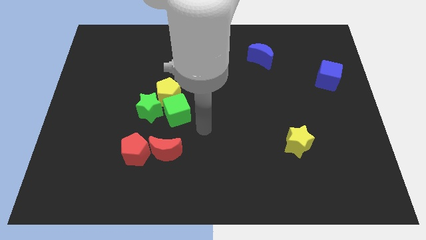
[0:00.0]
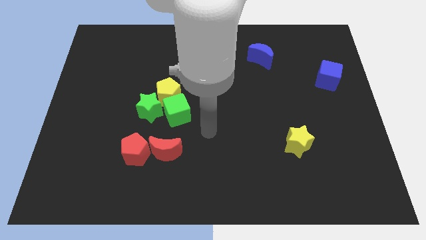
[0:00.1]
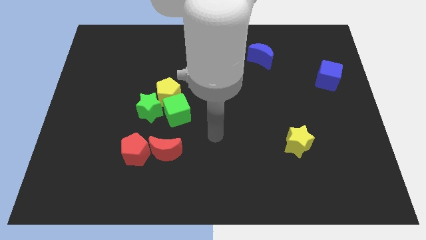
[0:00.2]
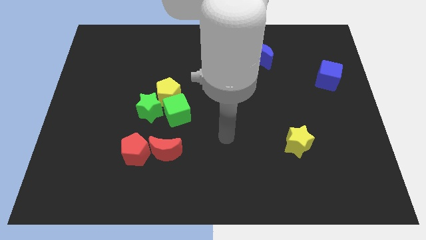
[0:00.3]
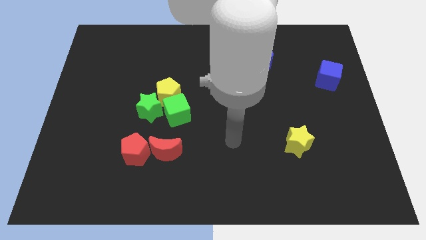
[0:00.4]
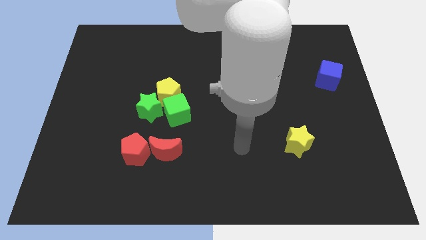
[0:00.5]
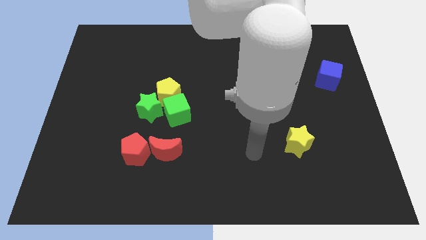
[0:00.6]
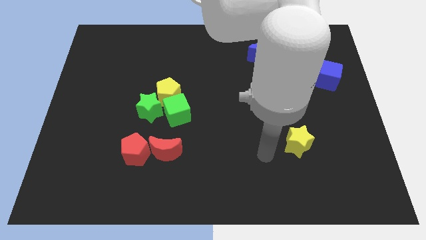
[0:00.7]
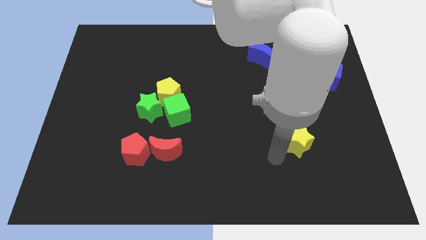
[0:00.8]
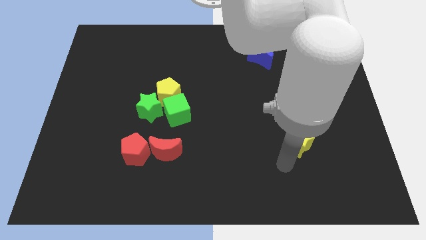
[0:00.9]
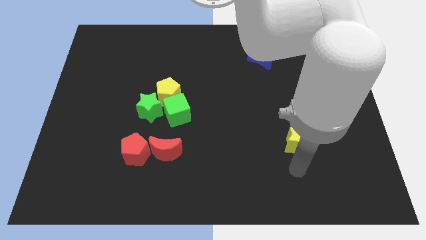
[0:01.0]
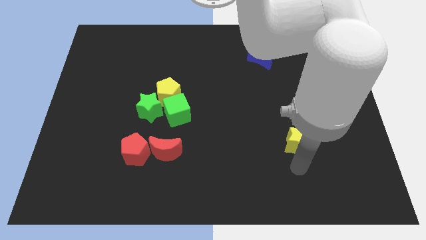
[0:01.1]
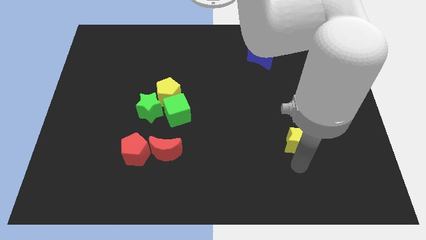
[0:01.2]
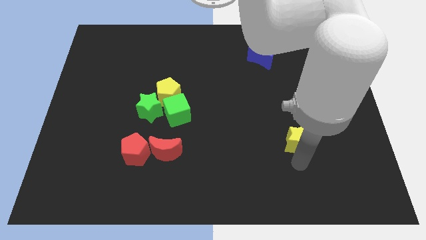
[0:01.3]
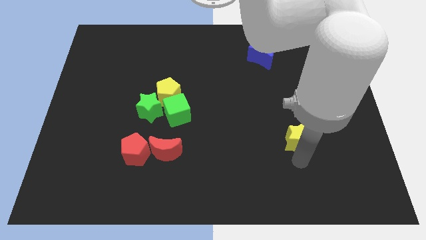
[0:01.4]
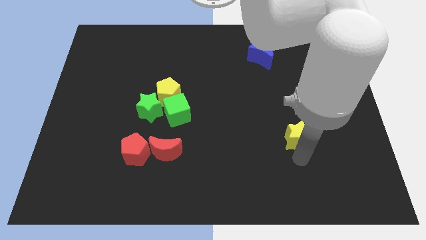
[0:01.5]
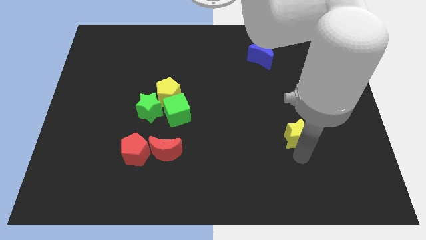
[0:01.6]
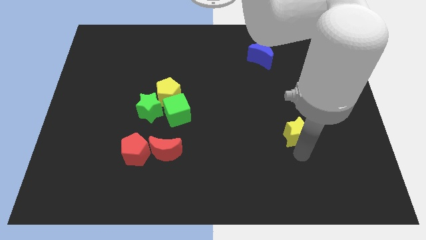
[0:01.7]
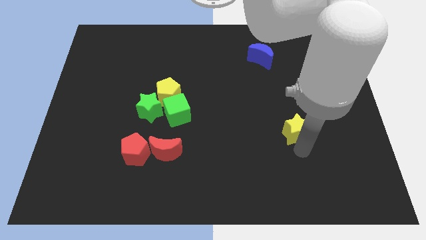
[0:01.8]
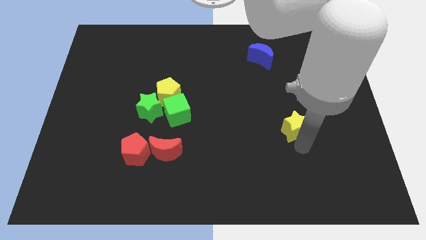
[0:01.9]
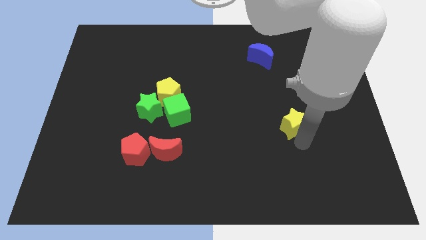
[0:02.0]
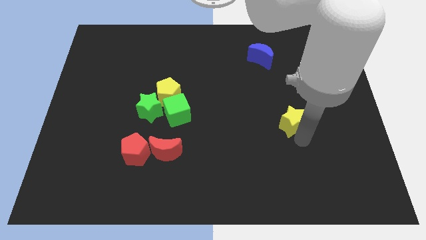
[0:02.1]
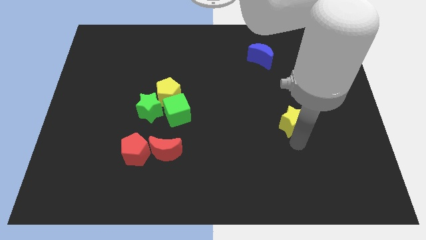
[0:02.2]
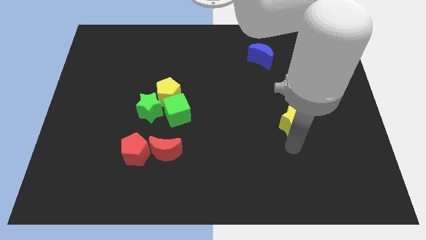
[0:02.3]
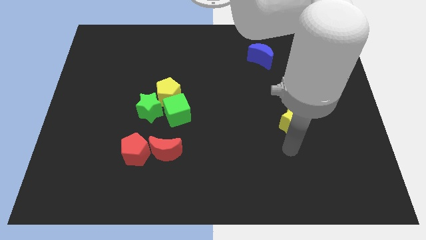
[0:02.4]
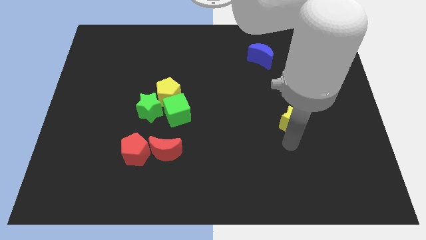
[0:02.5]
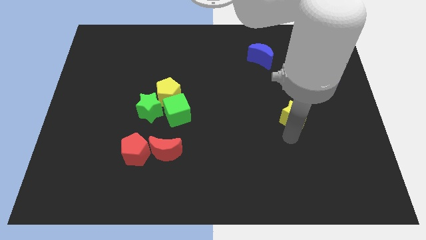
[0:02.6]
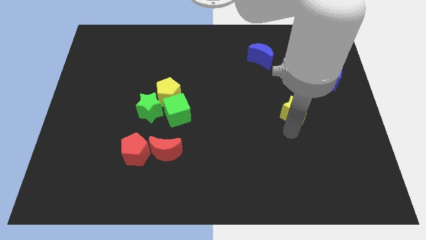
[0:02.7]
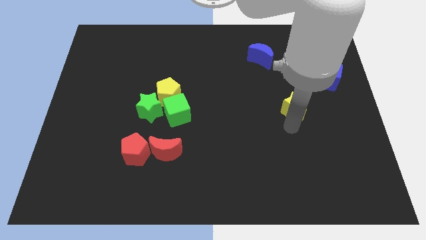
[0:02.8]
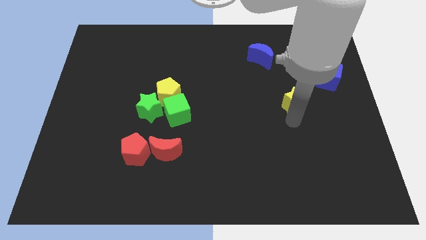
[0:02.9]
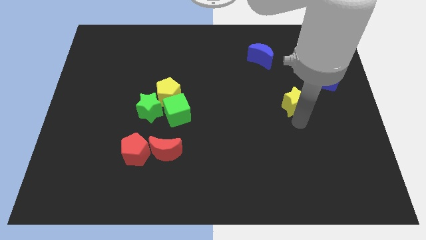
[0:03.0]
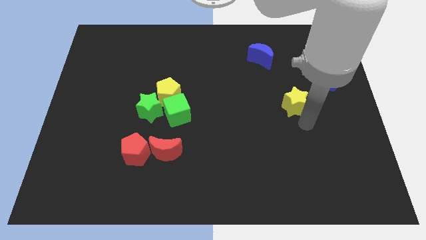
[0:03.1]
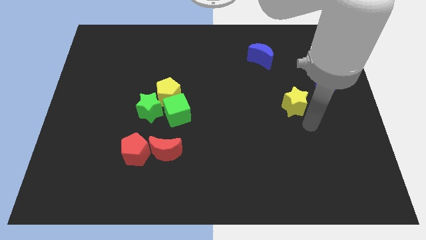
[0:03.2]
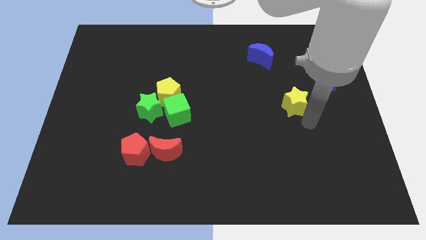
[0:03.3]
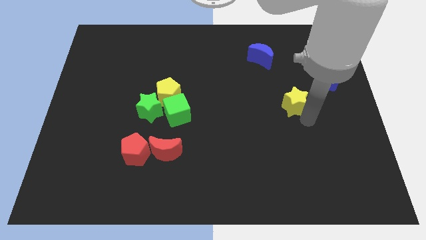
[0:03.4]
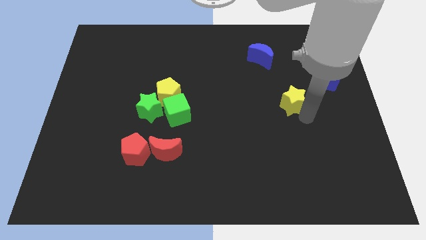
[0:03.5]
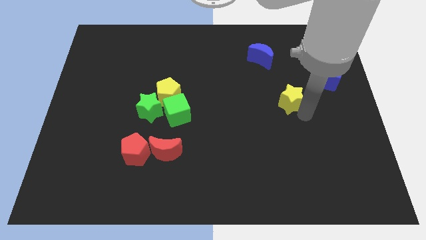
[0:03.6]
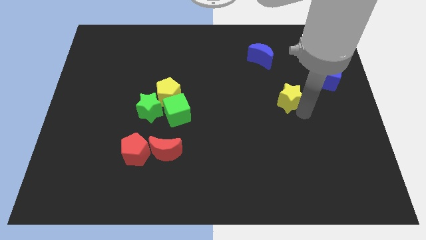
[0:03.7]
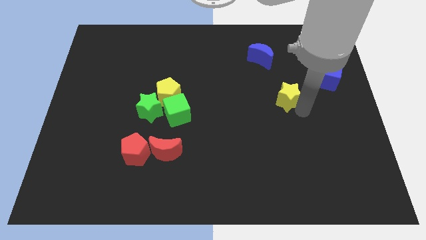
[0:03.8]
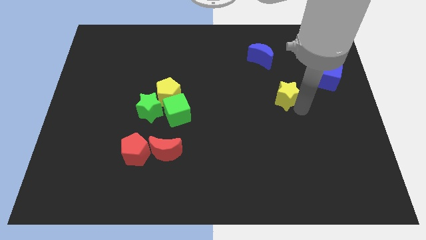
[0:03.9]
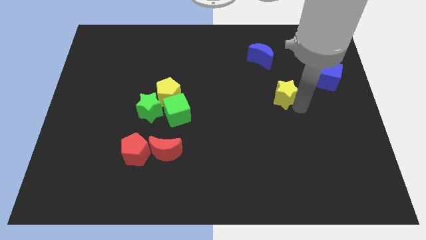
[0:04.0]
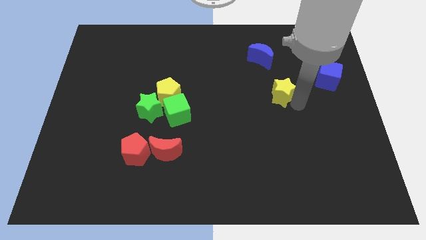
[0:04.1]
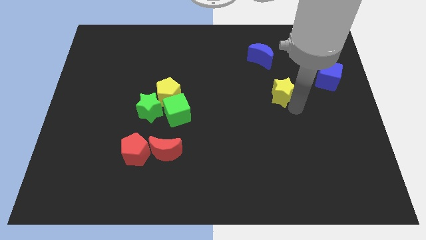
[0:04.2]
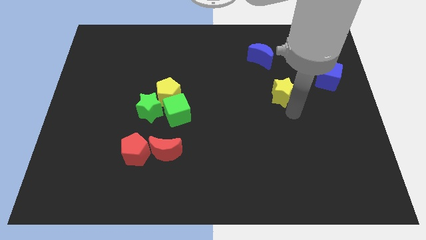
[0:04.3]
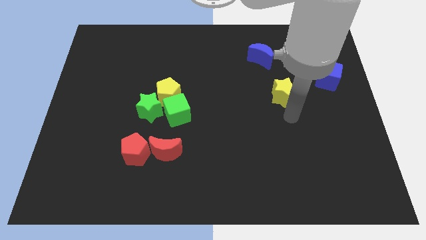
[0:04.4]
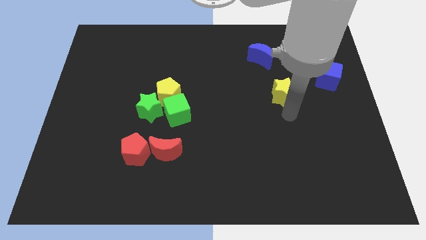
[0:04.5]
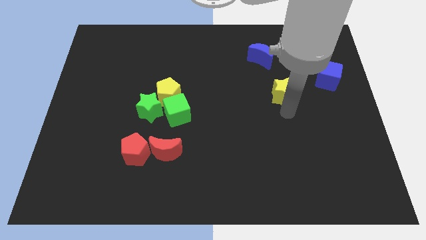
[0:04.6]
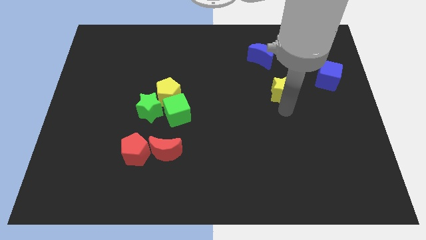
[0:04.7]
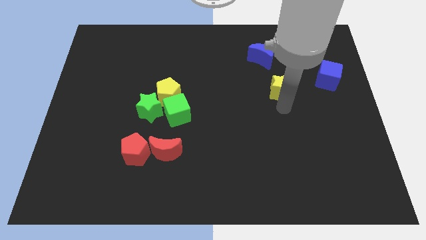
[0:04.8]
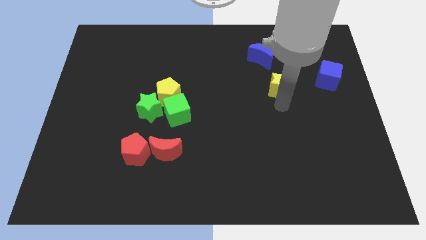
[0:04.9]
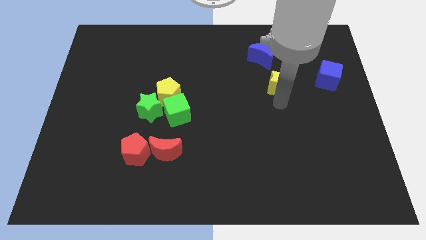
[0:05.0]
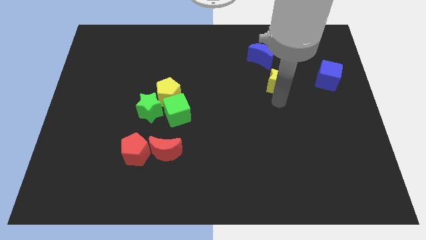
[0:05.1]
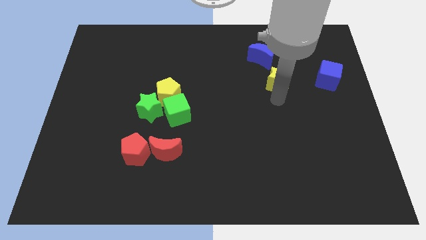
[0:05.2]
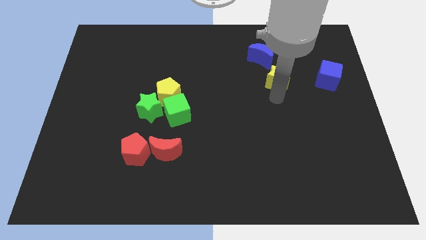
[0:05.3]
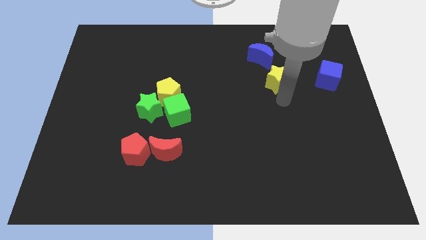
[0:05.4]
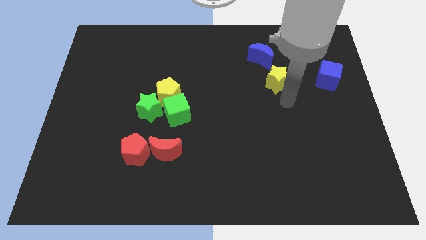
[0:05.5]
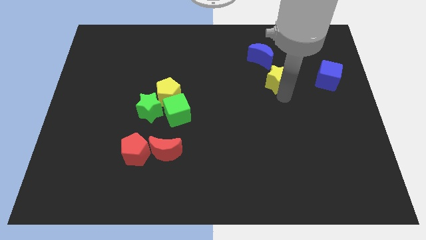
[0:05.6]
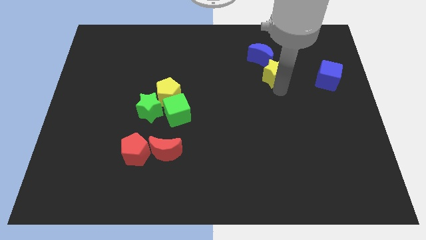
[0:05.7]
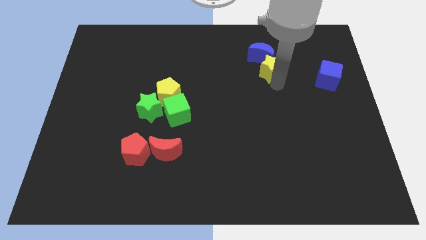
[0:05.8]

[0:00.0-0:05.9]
put the yellow star towards the blue moon

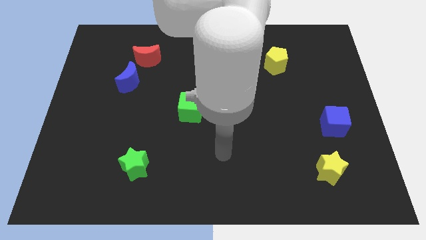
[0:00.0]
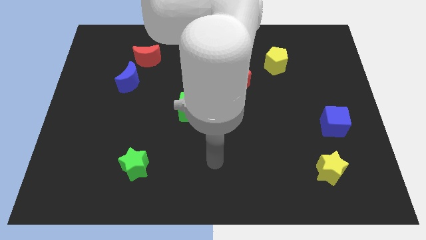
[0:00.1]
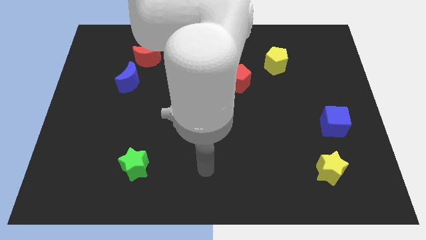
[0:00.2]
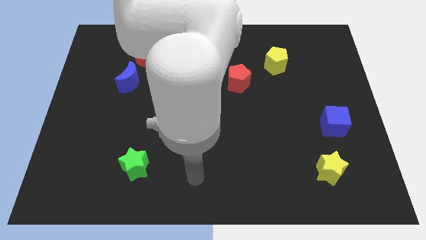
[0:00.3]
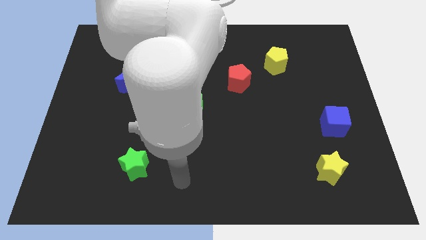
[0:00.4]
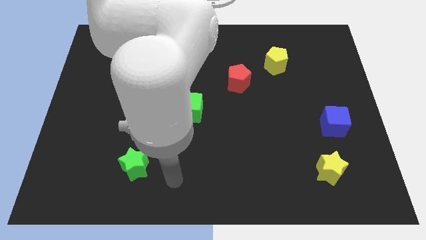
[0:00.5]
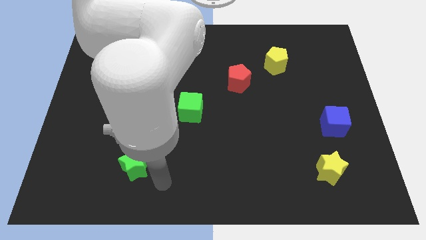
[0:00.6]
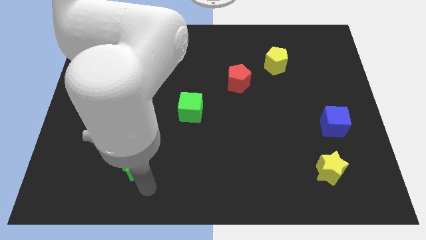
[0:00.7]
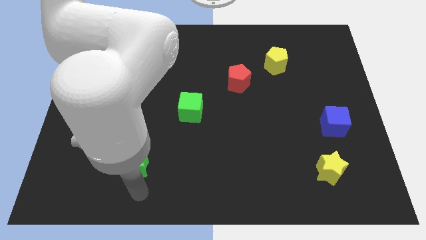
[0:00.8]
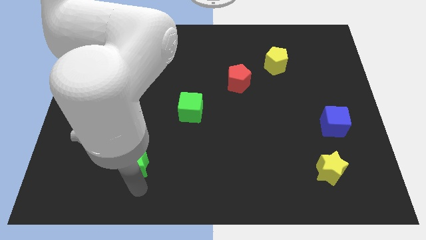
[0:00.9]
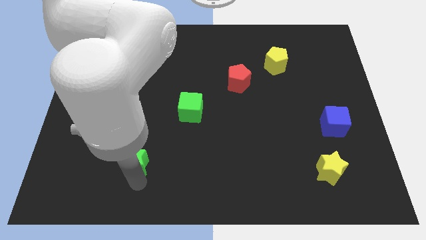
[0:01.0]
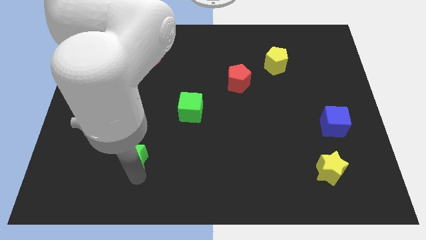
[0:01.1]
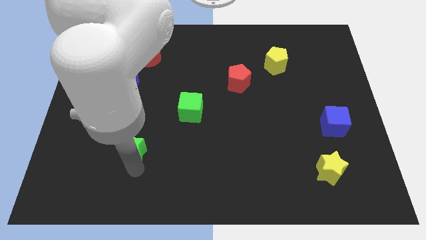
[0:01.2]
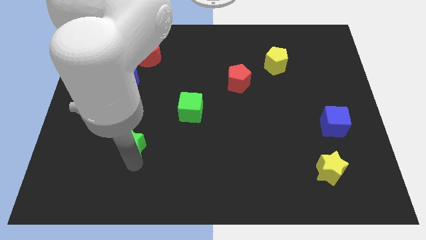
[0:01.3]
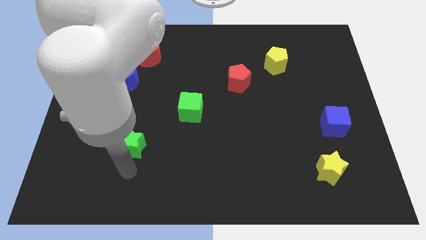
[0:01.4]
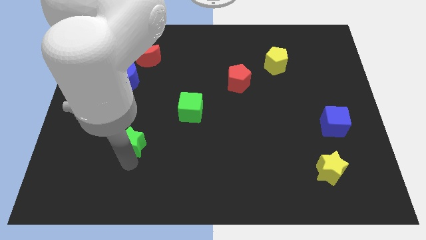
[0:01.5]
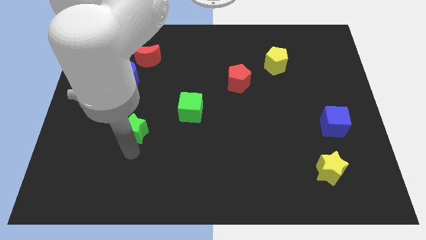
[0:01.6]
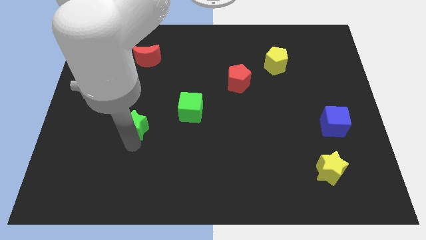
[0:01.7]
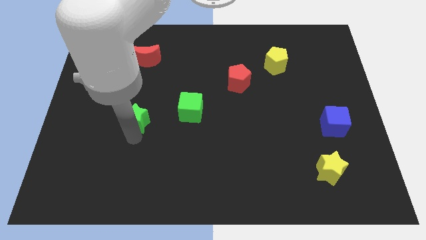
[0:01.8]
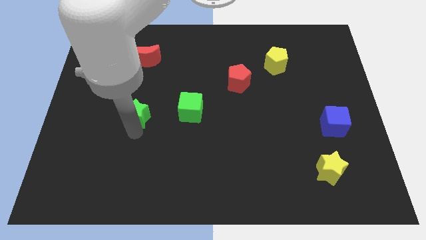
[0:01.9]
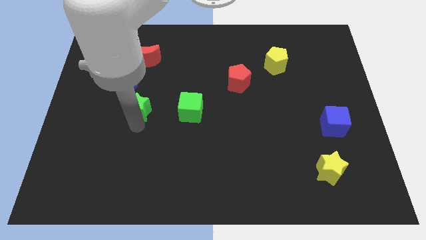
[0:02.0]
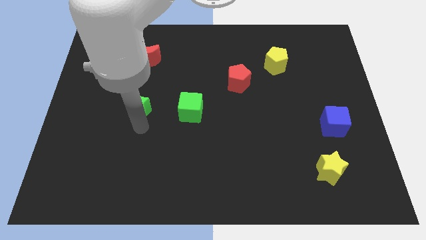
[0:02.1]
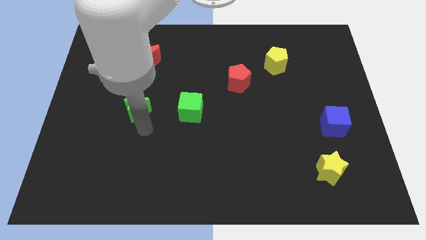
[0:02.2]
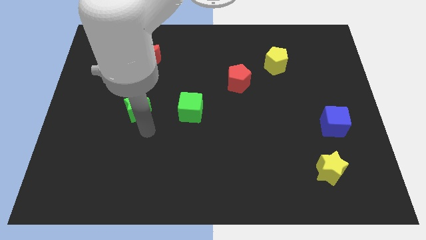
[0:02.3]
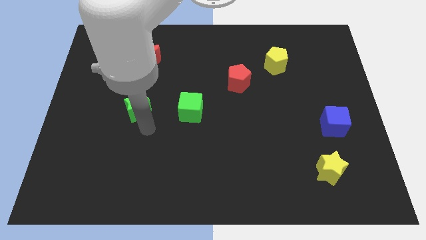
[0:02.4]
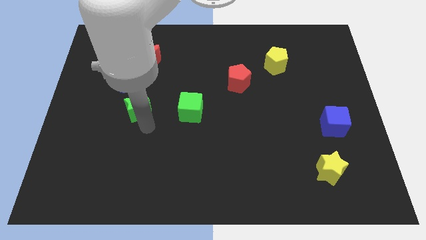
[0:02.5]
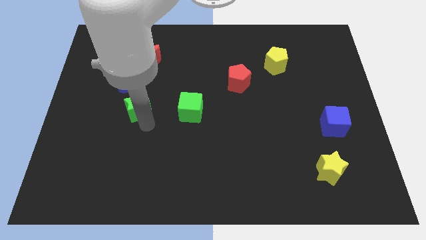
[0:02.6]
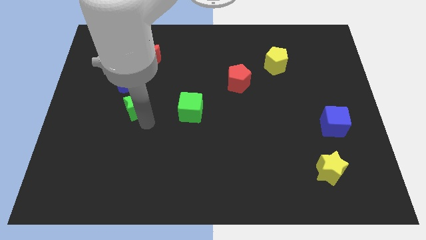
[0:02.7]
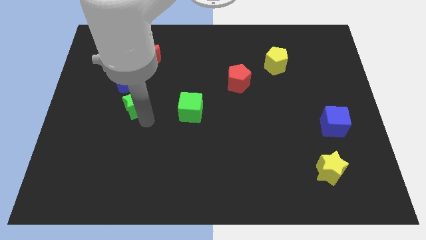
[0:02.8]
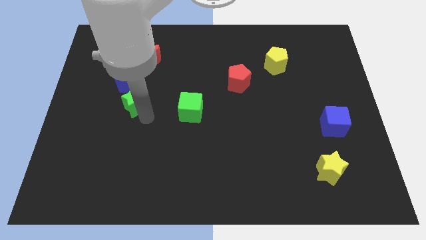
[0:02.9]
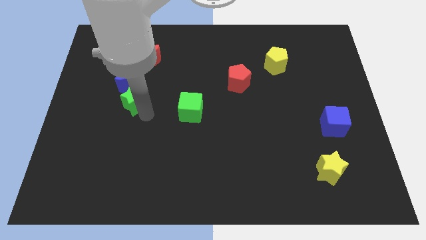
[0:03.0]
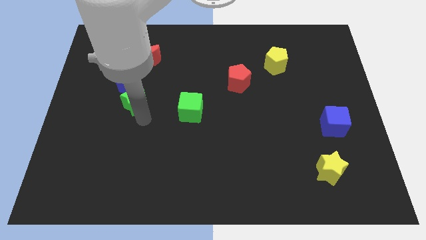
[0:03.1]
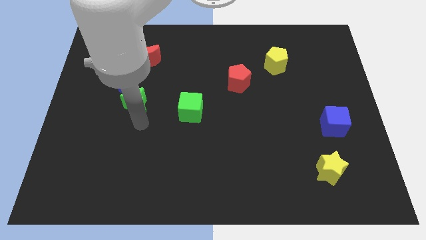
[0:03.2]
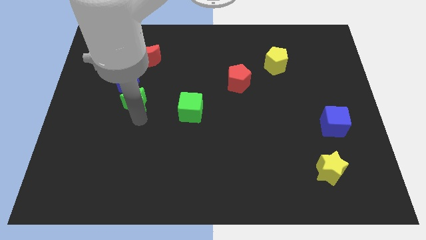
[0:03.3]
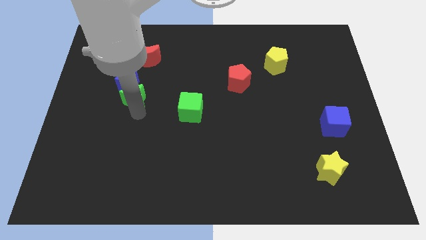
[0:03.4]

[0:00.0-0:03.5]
push the green star next to the blue moon
